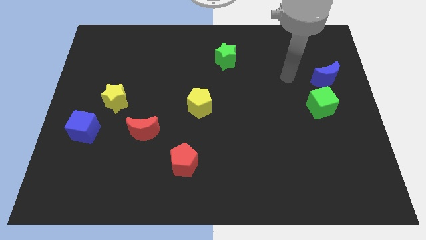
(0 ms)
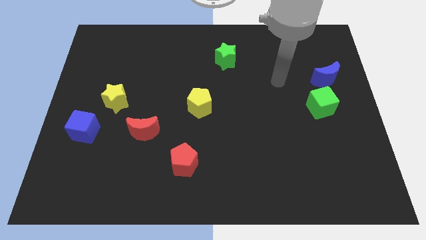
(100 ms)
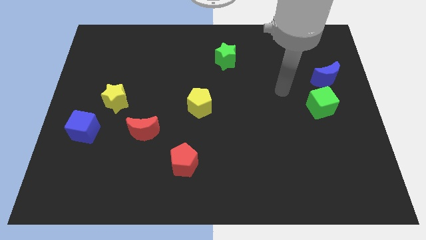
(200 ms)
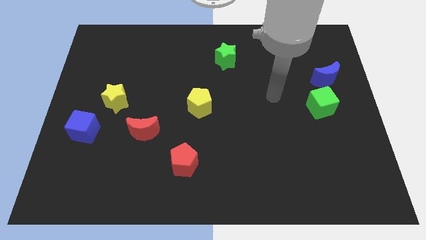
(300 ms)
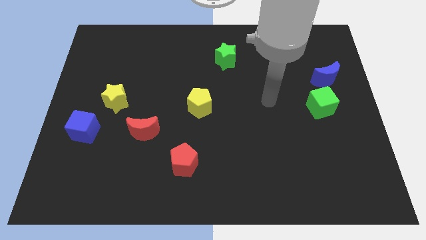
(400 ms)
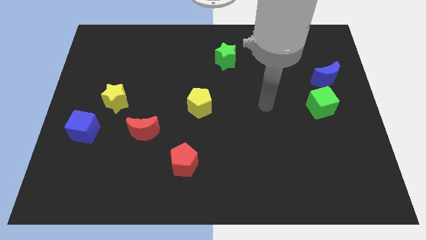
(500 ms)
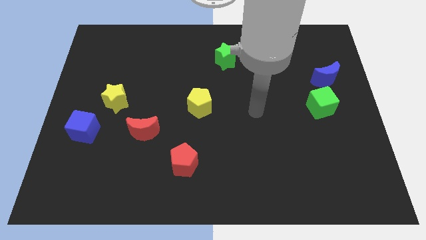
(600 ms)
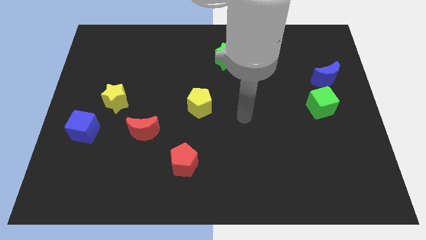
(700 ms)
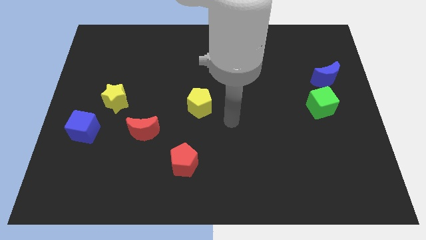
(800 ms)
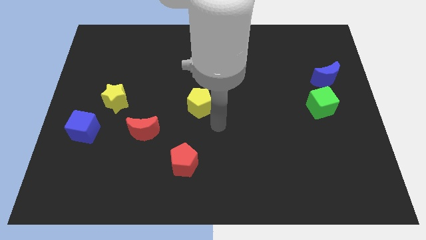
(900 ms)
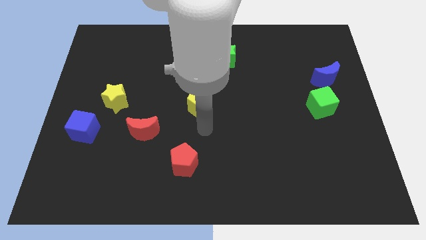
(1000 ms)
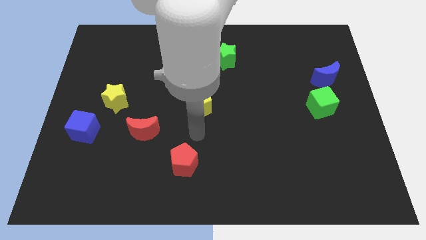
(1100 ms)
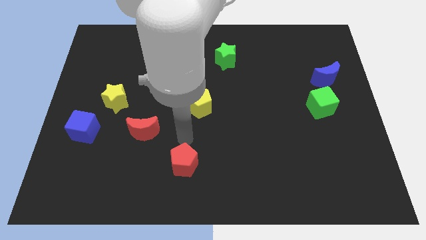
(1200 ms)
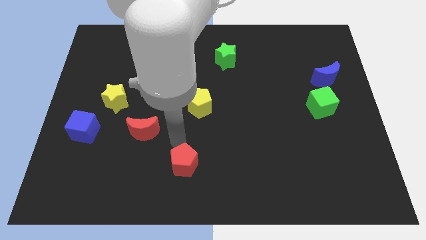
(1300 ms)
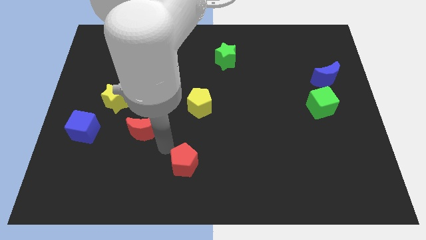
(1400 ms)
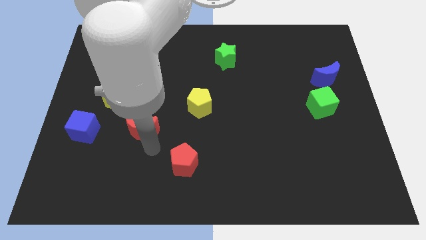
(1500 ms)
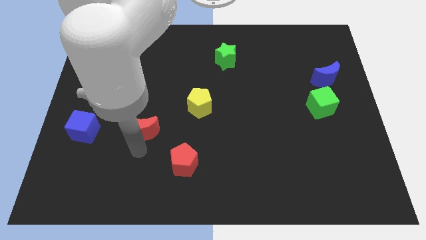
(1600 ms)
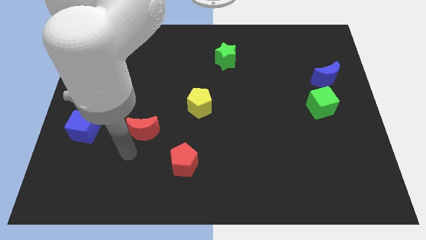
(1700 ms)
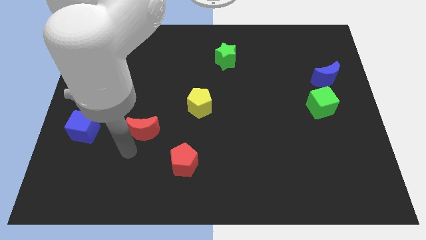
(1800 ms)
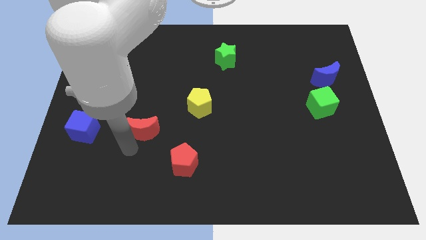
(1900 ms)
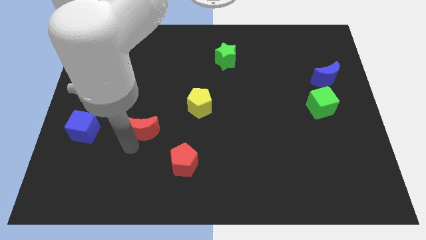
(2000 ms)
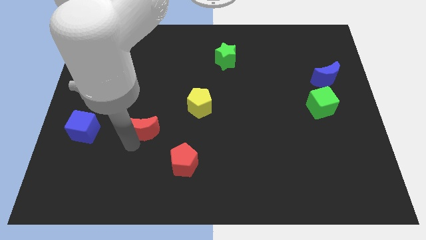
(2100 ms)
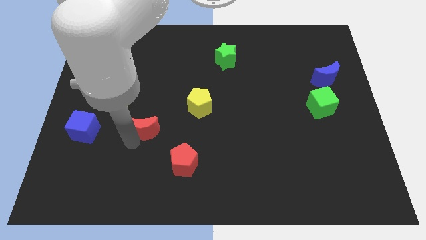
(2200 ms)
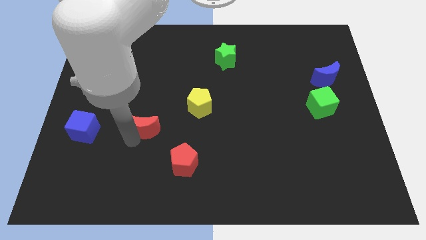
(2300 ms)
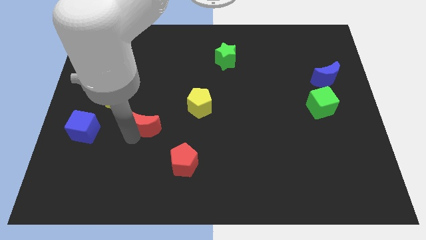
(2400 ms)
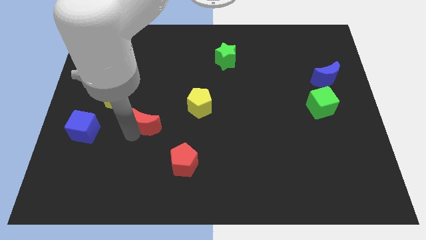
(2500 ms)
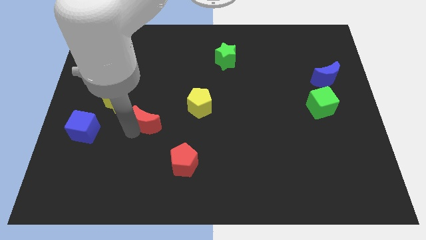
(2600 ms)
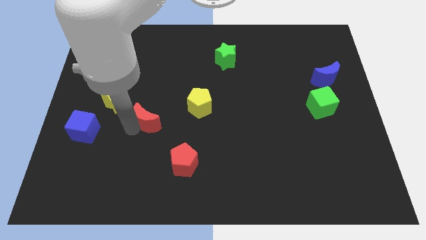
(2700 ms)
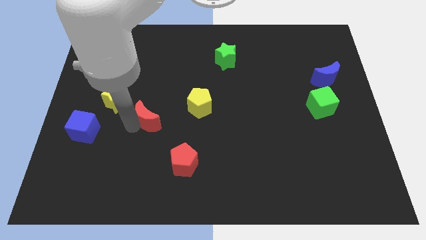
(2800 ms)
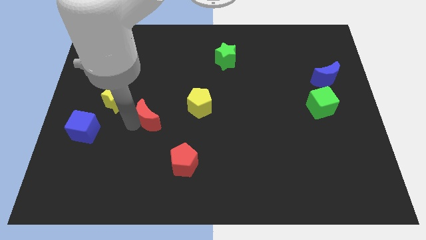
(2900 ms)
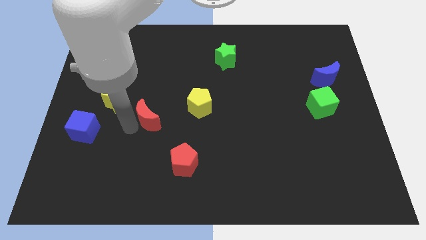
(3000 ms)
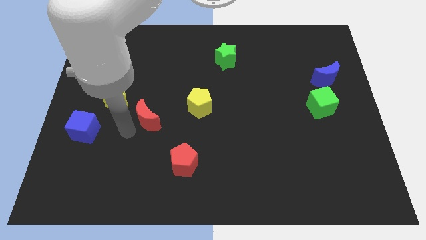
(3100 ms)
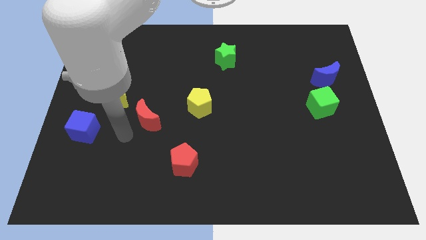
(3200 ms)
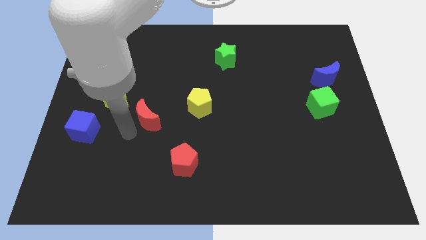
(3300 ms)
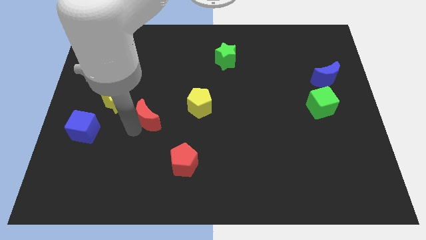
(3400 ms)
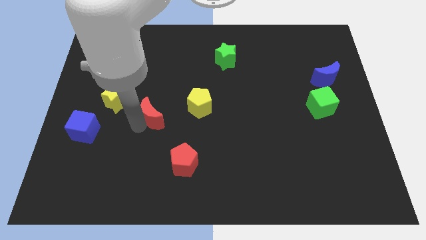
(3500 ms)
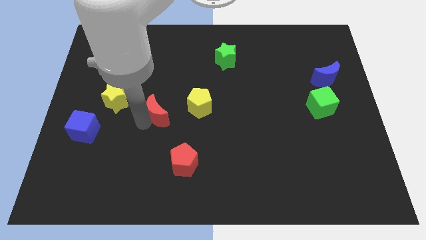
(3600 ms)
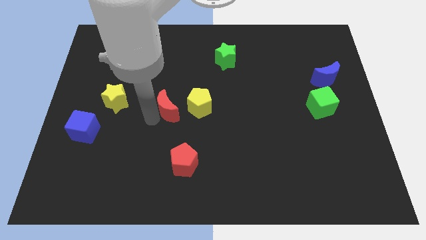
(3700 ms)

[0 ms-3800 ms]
push the red moon a little upwards and then to the right

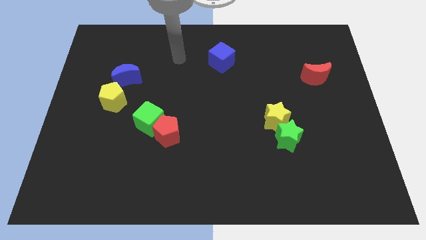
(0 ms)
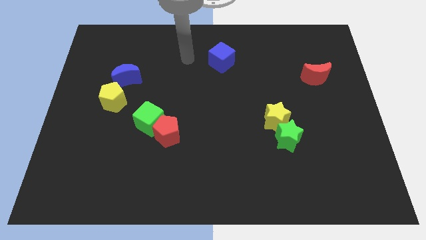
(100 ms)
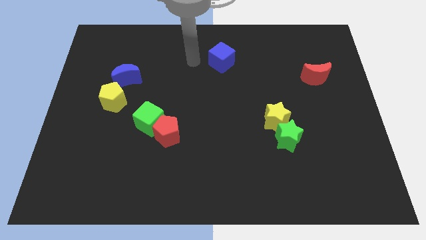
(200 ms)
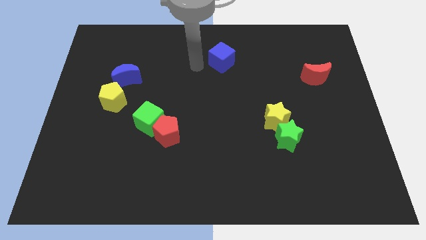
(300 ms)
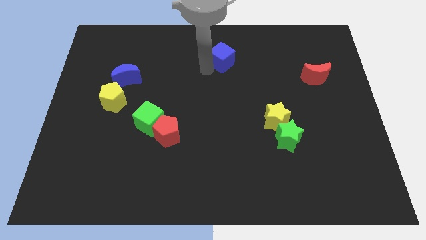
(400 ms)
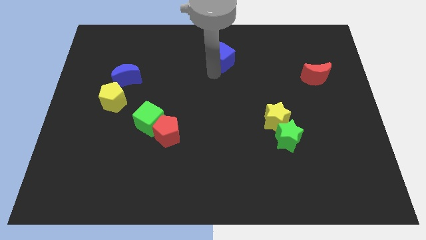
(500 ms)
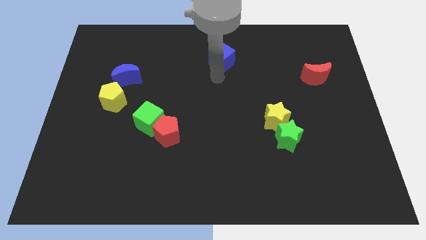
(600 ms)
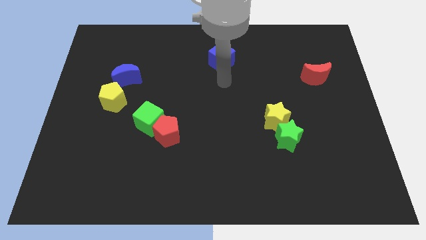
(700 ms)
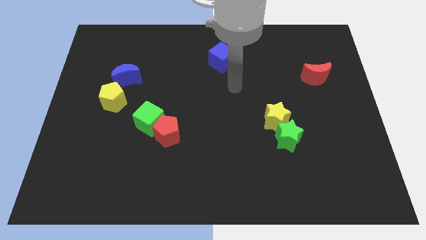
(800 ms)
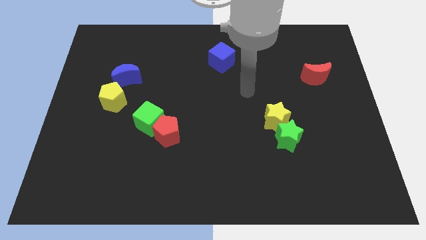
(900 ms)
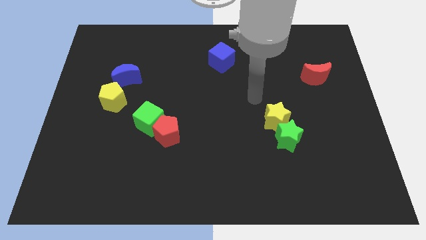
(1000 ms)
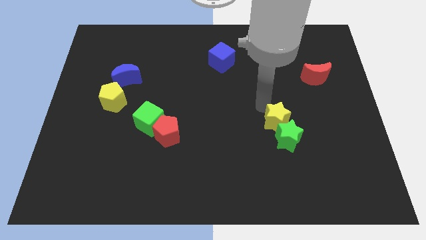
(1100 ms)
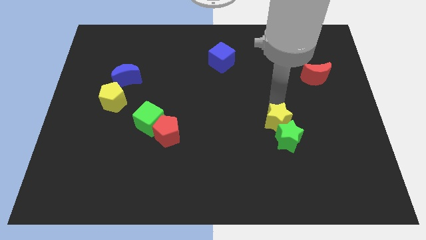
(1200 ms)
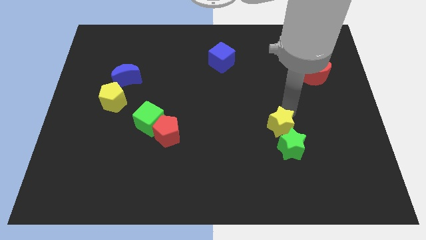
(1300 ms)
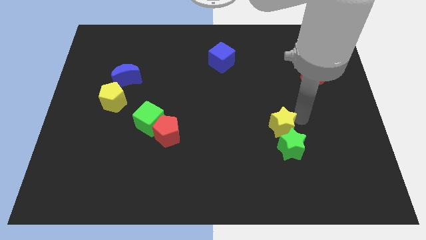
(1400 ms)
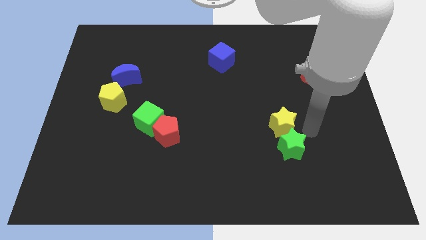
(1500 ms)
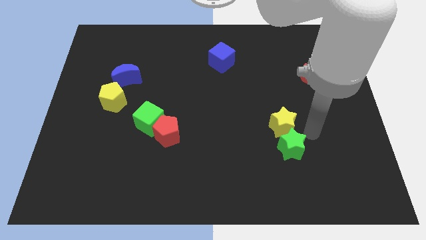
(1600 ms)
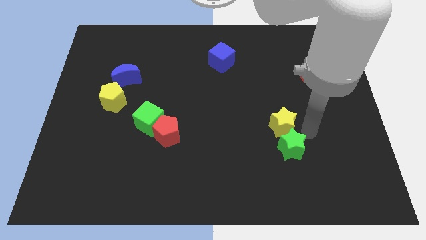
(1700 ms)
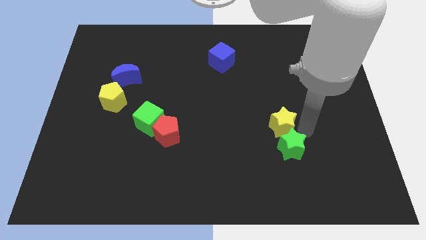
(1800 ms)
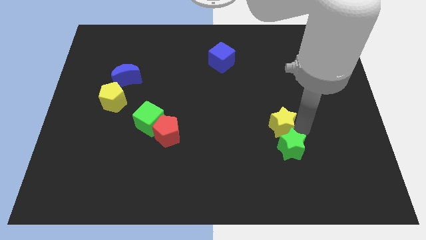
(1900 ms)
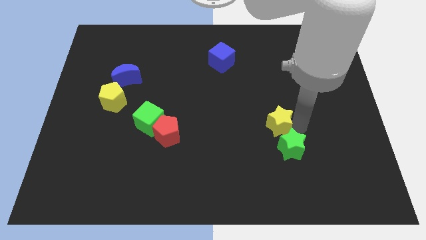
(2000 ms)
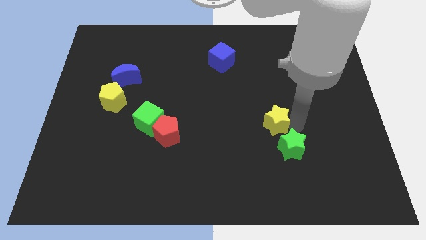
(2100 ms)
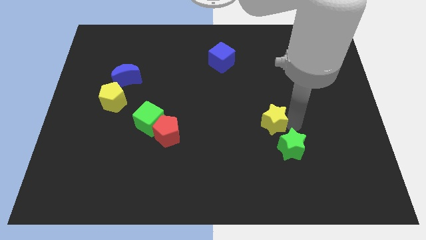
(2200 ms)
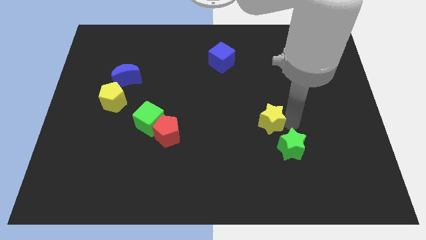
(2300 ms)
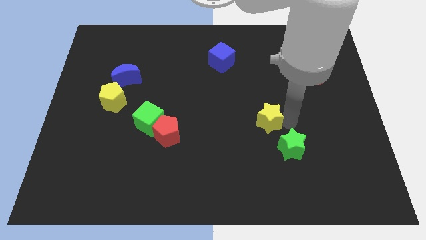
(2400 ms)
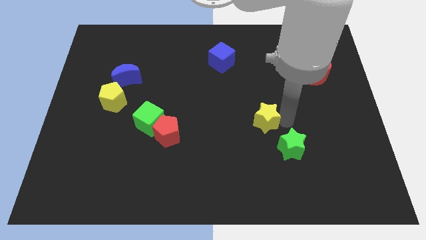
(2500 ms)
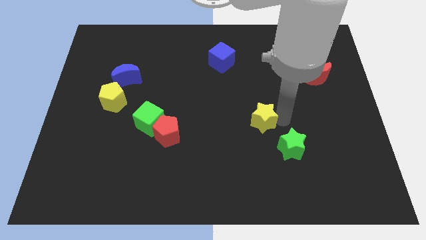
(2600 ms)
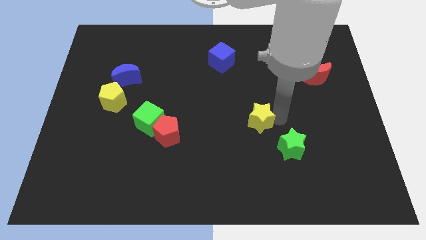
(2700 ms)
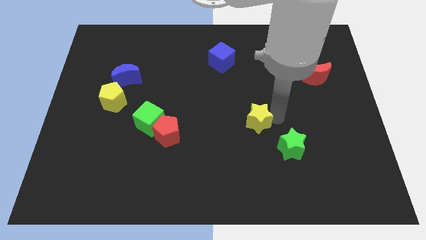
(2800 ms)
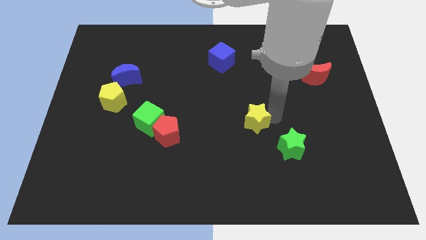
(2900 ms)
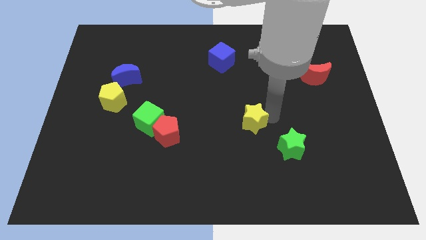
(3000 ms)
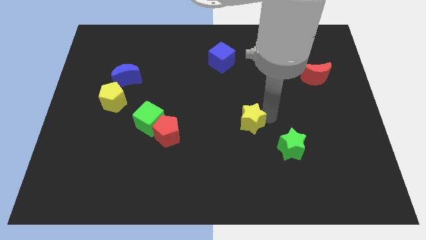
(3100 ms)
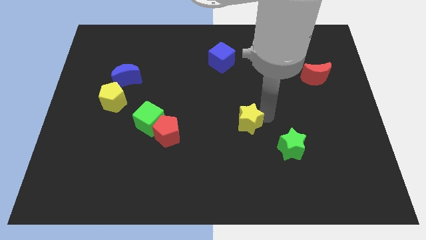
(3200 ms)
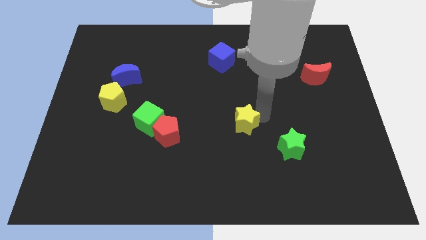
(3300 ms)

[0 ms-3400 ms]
slightly move the yellow star left

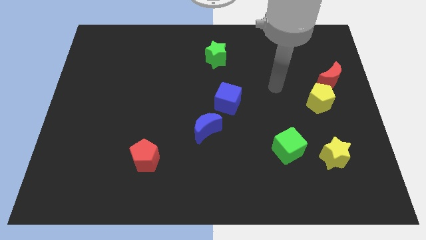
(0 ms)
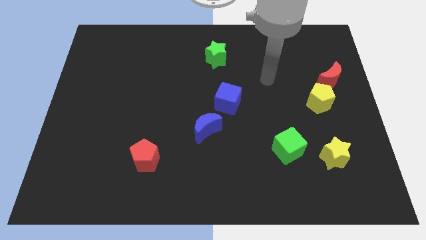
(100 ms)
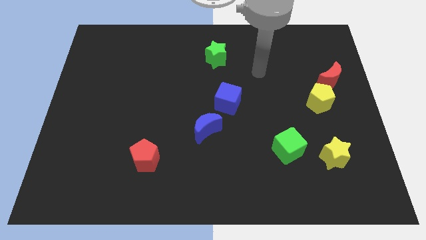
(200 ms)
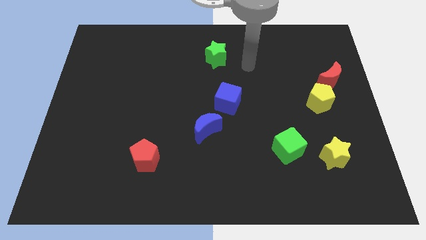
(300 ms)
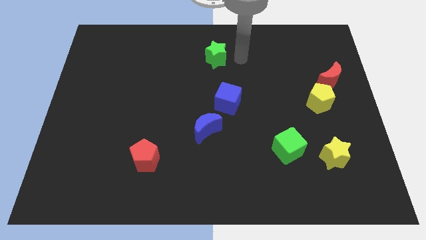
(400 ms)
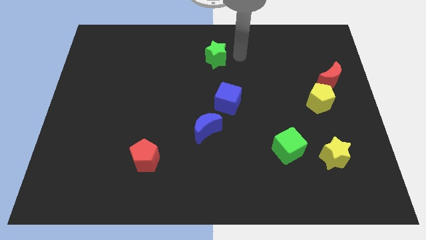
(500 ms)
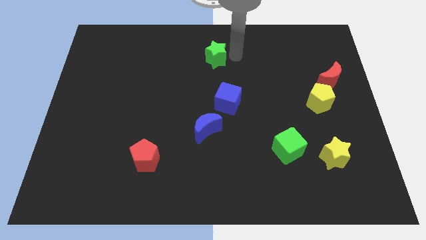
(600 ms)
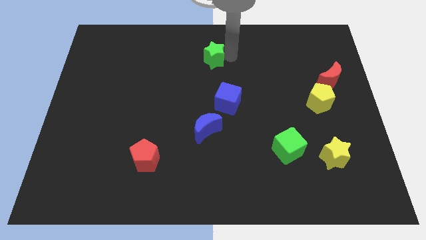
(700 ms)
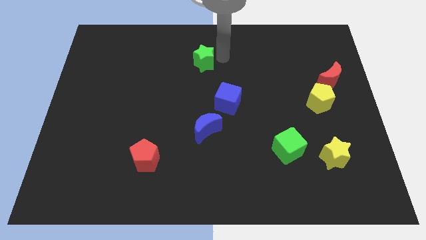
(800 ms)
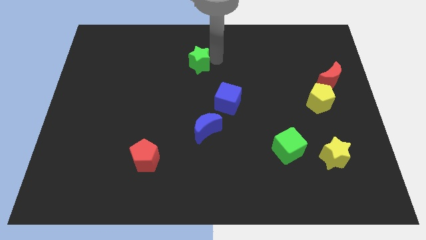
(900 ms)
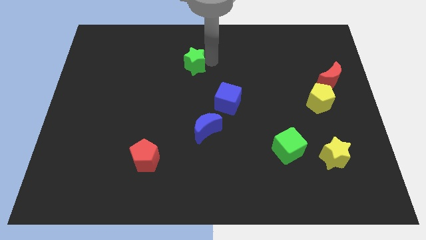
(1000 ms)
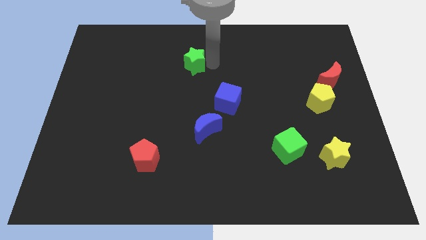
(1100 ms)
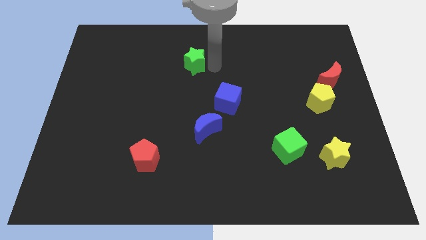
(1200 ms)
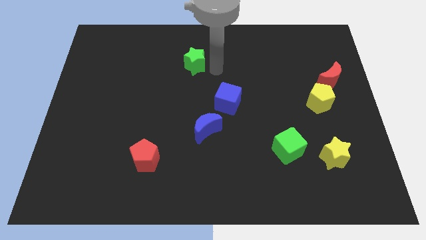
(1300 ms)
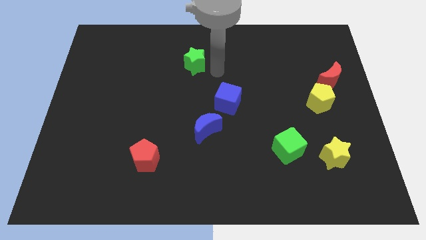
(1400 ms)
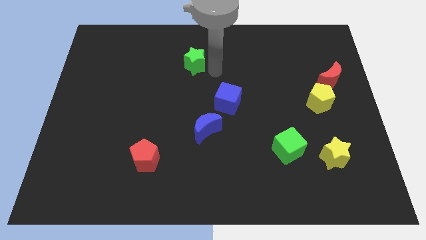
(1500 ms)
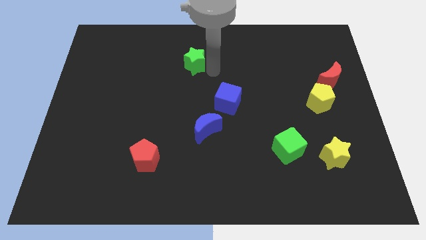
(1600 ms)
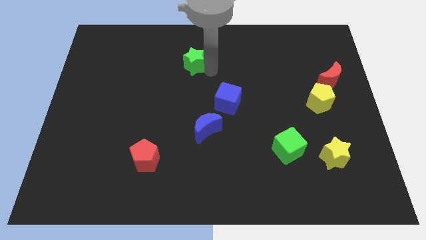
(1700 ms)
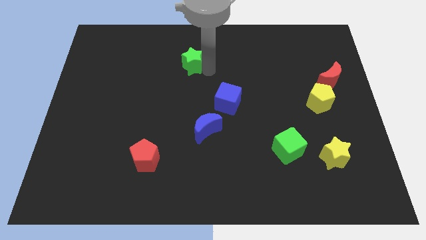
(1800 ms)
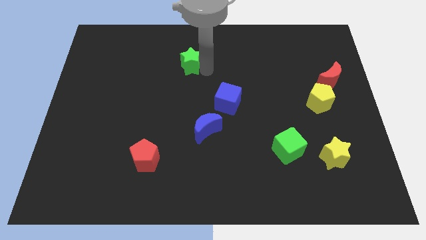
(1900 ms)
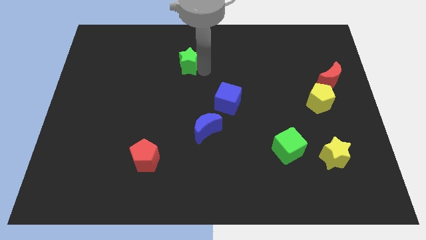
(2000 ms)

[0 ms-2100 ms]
slide the green star left slightly
